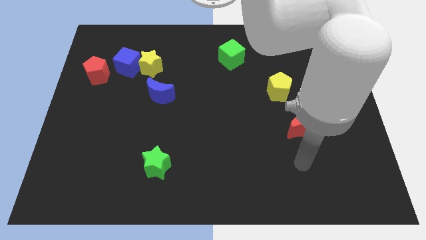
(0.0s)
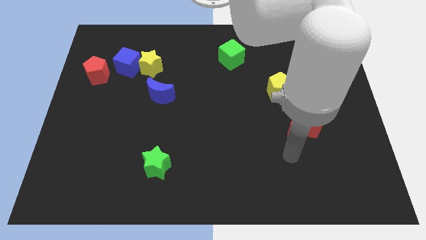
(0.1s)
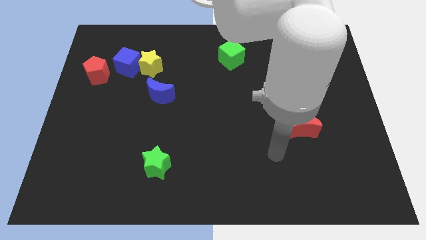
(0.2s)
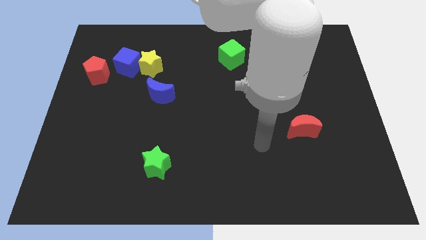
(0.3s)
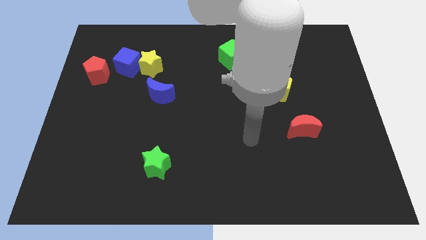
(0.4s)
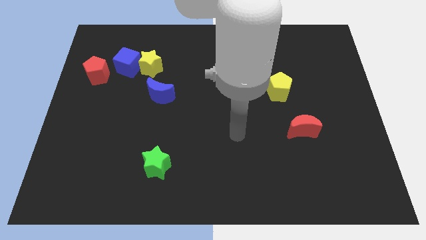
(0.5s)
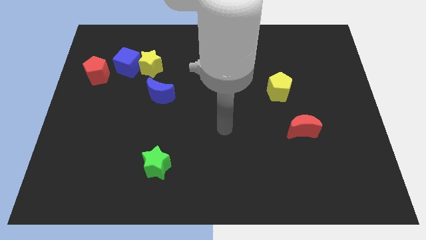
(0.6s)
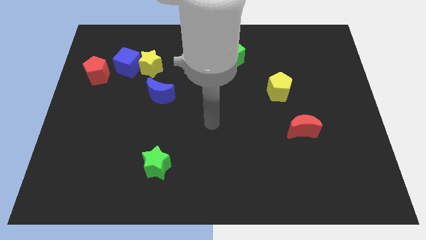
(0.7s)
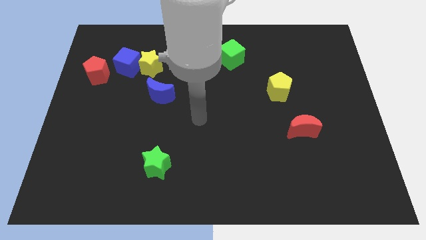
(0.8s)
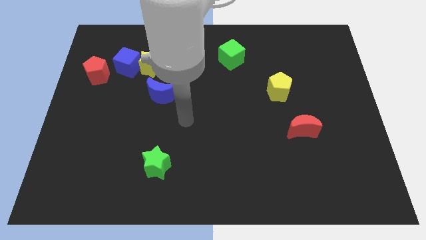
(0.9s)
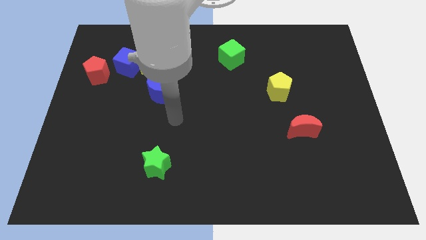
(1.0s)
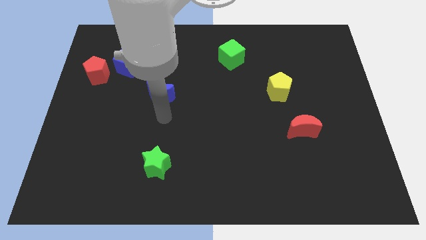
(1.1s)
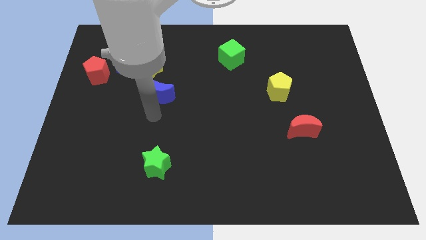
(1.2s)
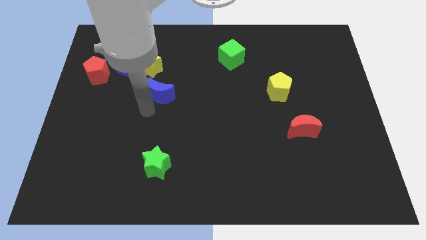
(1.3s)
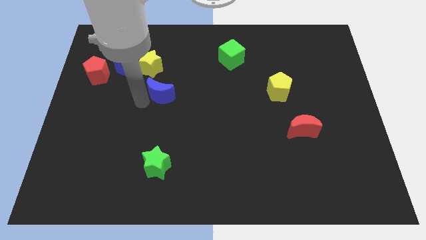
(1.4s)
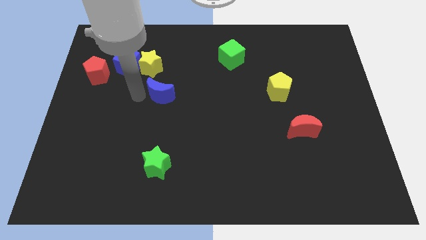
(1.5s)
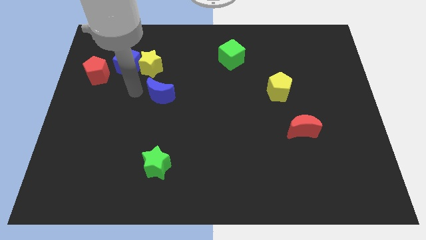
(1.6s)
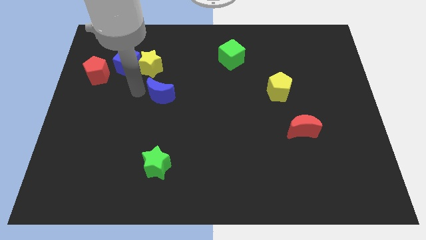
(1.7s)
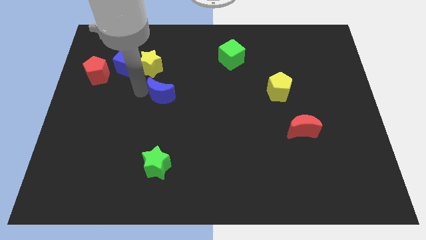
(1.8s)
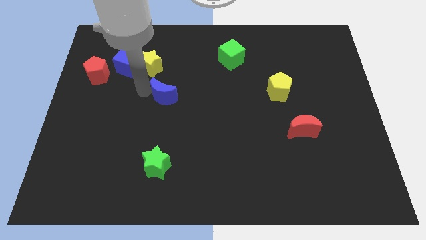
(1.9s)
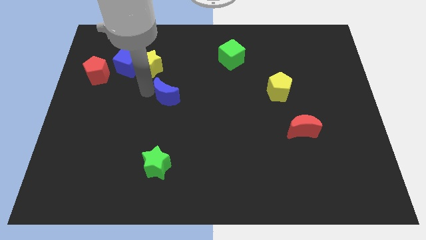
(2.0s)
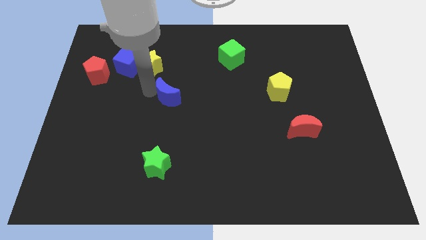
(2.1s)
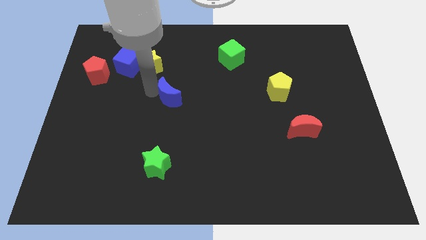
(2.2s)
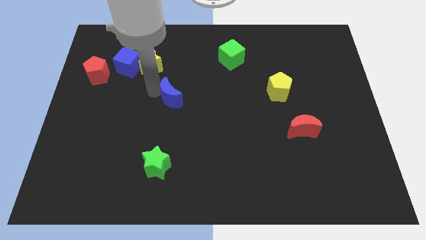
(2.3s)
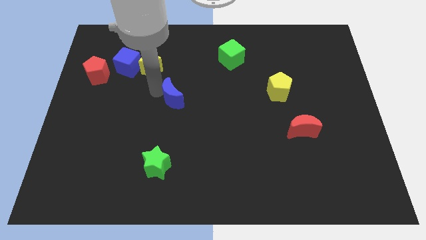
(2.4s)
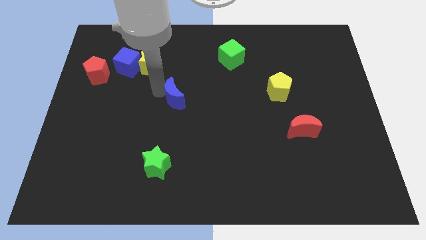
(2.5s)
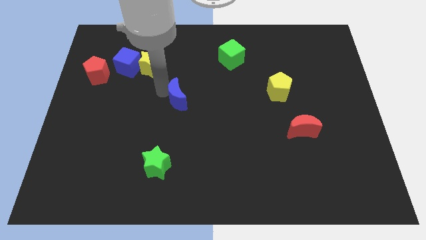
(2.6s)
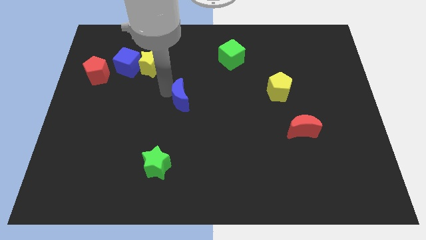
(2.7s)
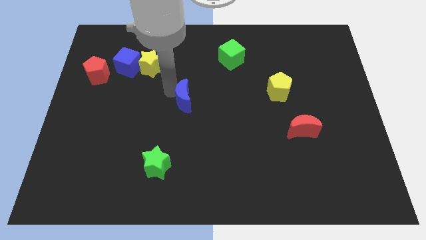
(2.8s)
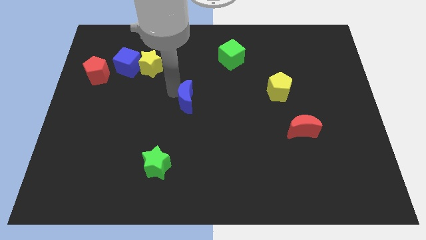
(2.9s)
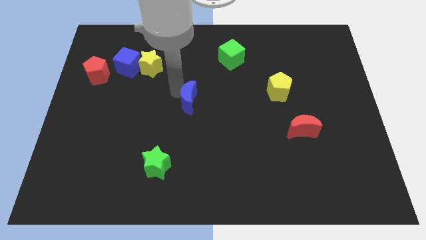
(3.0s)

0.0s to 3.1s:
slightly move the blue moon right

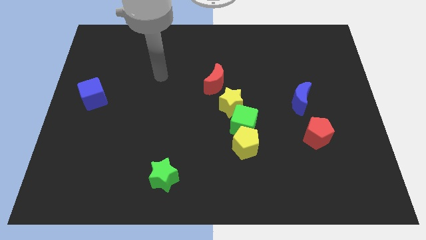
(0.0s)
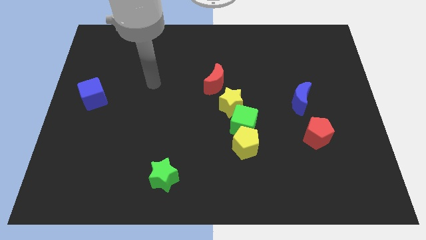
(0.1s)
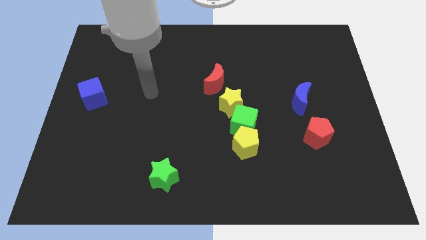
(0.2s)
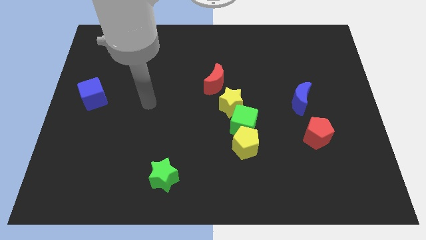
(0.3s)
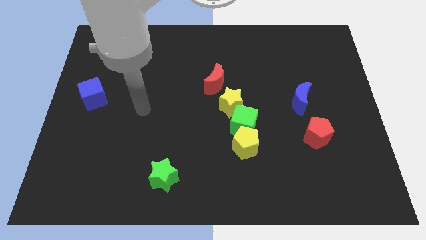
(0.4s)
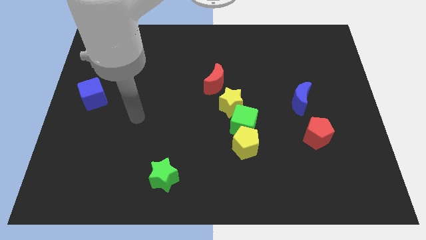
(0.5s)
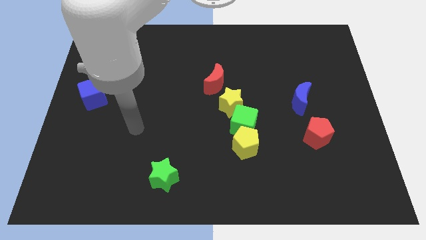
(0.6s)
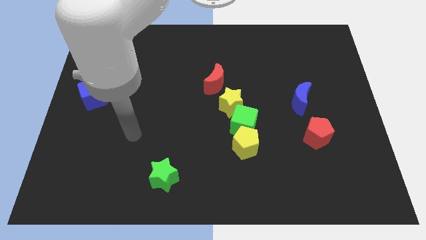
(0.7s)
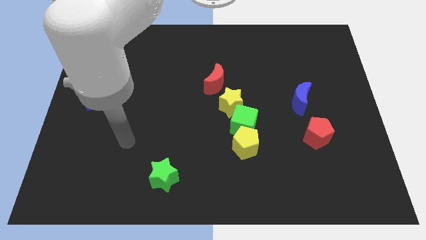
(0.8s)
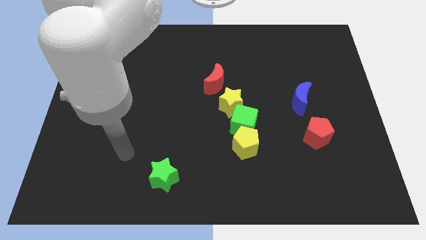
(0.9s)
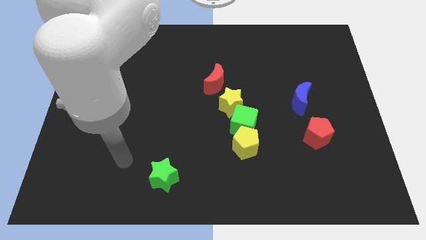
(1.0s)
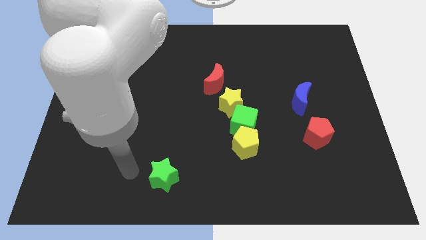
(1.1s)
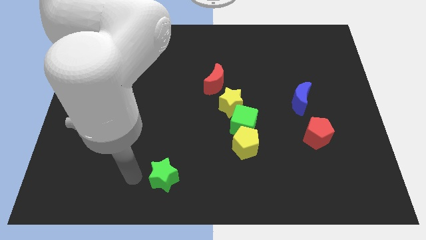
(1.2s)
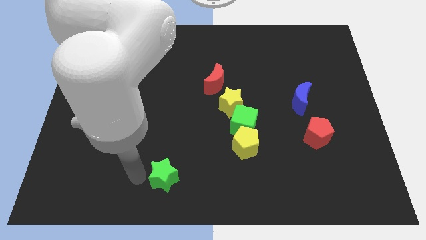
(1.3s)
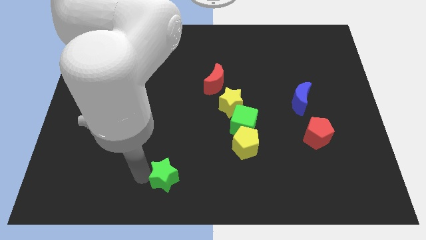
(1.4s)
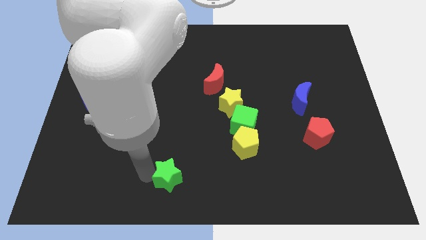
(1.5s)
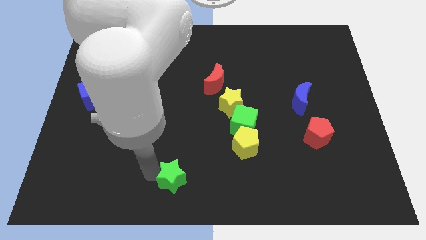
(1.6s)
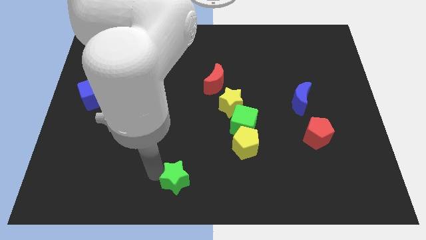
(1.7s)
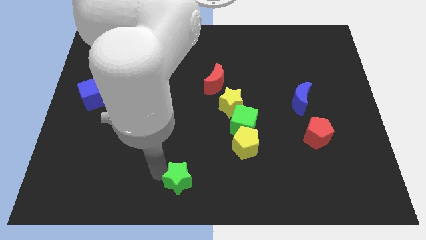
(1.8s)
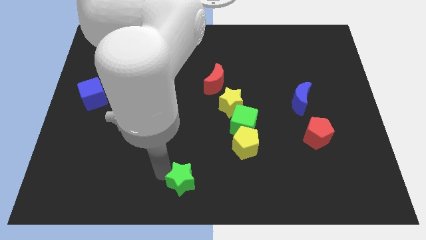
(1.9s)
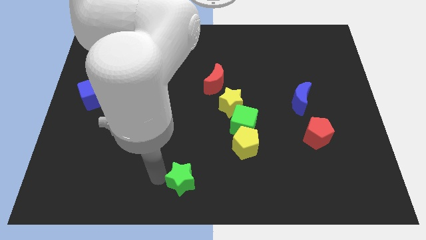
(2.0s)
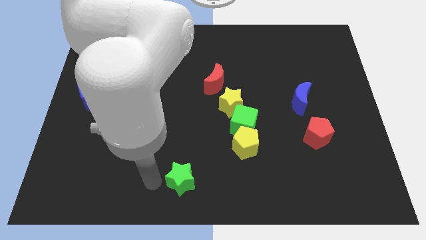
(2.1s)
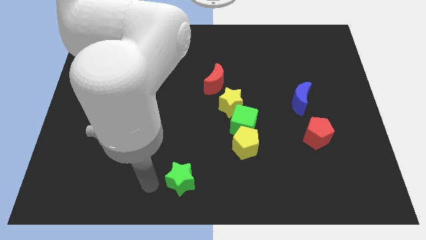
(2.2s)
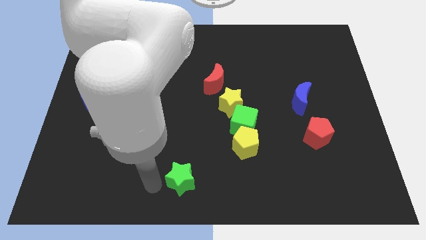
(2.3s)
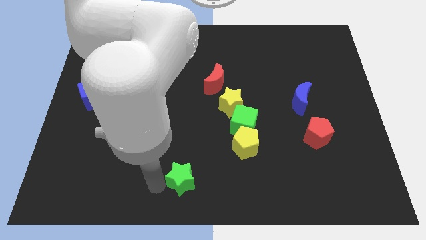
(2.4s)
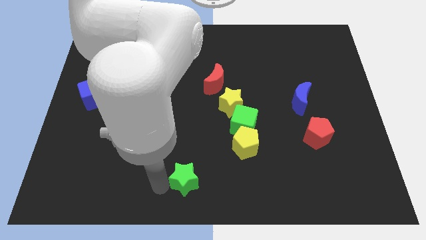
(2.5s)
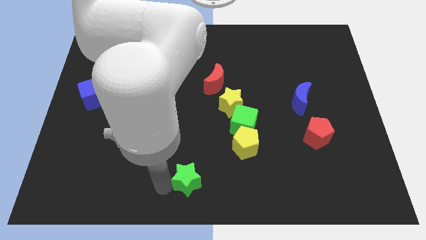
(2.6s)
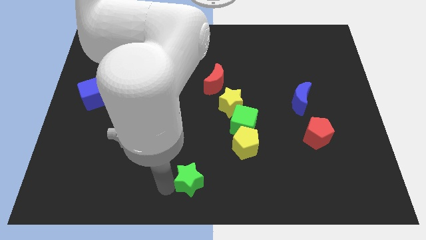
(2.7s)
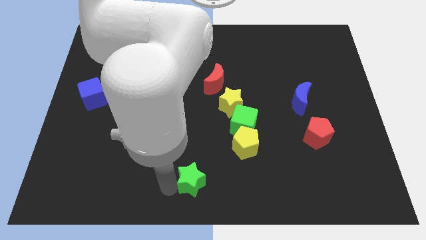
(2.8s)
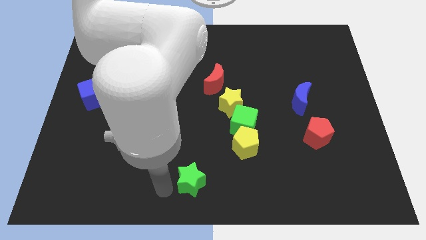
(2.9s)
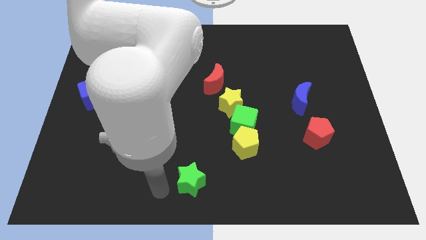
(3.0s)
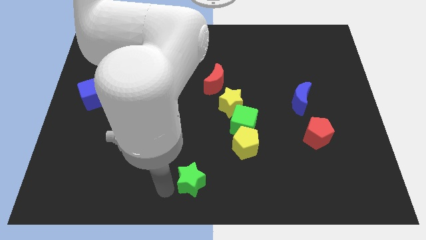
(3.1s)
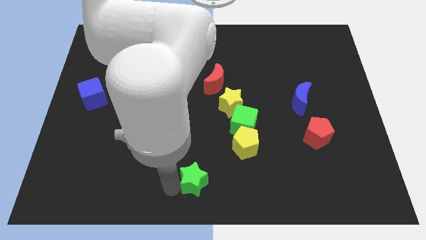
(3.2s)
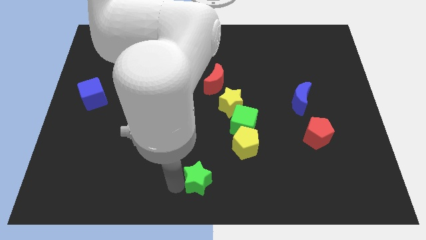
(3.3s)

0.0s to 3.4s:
slightly move the green star to the right

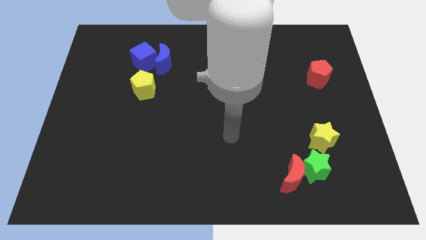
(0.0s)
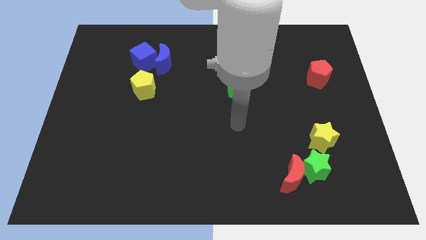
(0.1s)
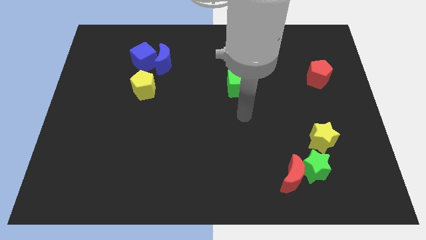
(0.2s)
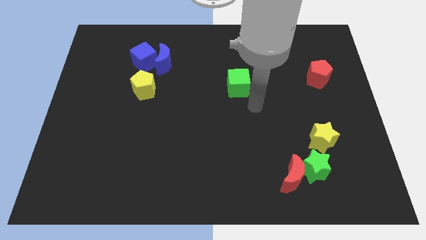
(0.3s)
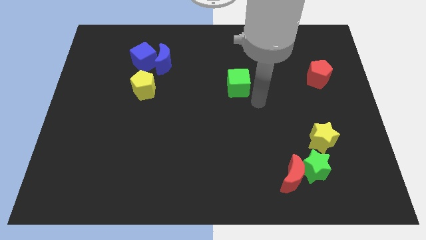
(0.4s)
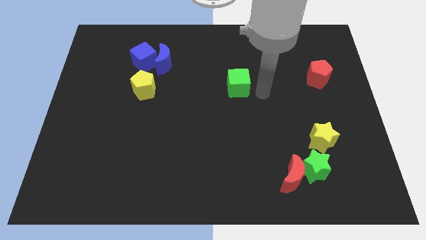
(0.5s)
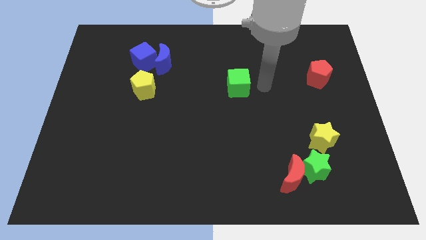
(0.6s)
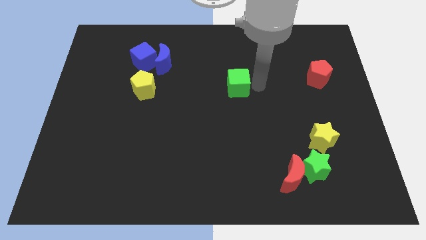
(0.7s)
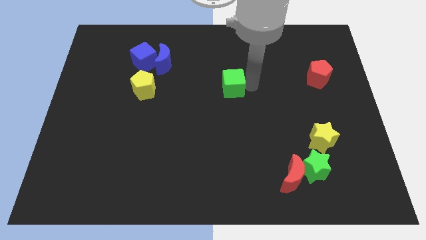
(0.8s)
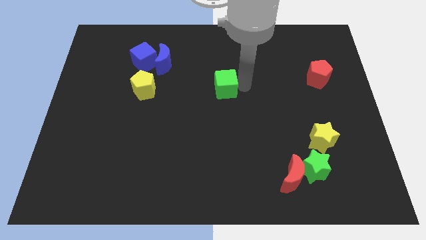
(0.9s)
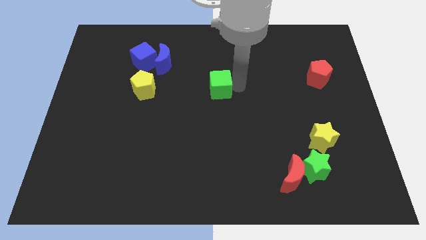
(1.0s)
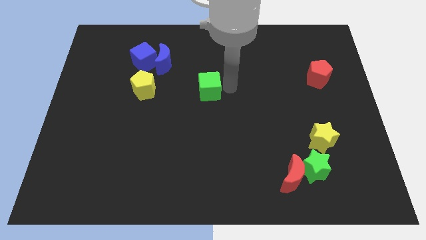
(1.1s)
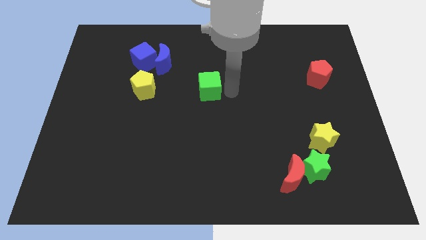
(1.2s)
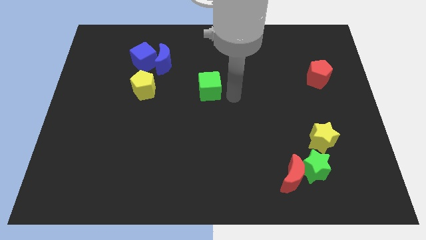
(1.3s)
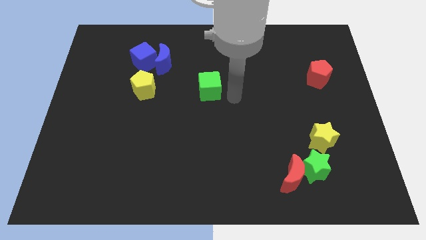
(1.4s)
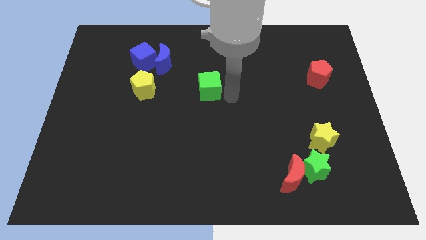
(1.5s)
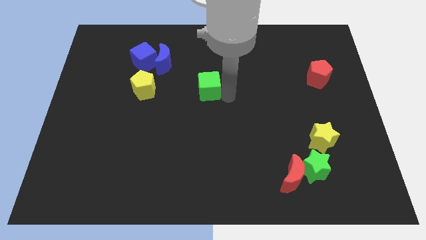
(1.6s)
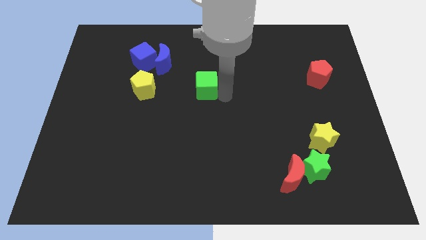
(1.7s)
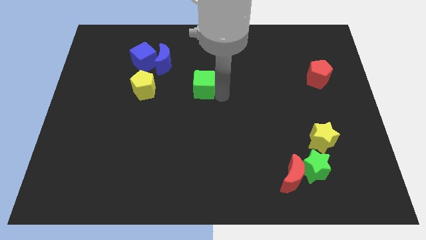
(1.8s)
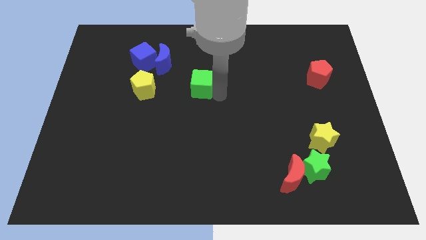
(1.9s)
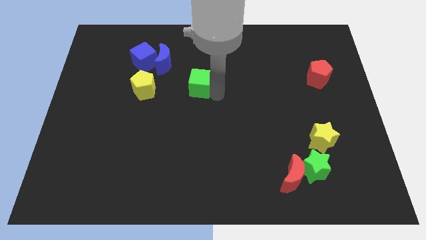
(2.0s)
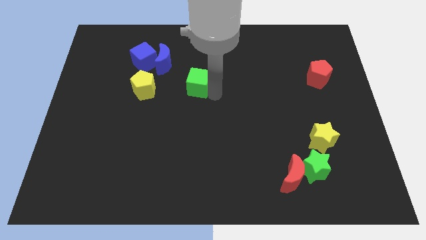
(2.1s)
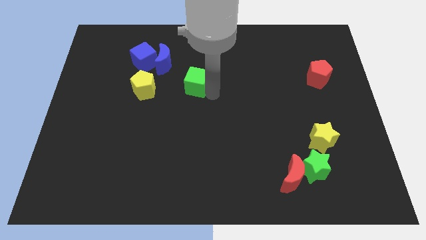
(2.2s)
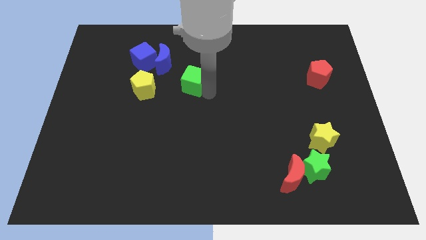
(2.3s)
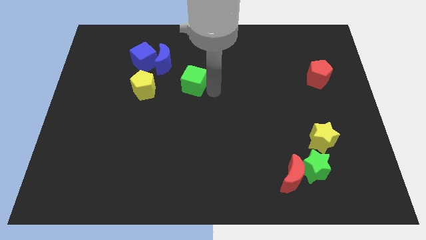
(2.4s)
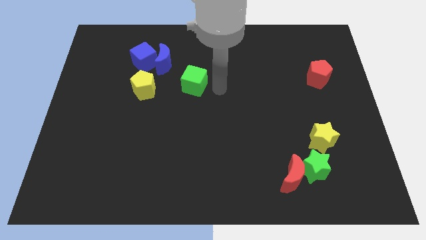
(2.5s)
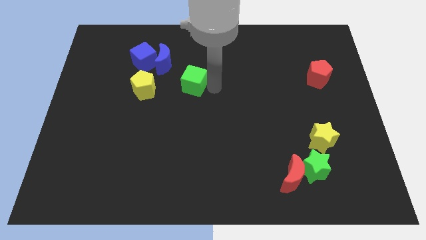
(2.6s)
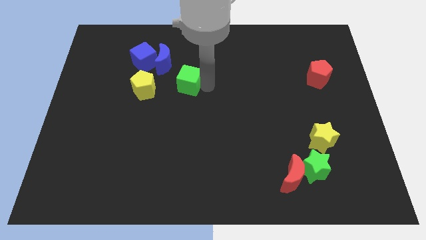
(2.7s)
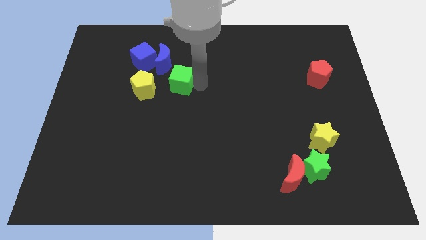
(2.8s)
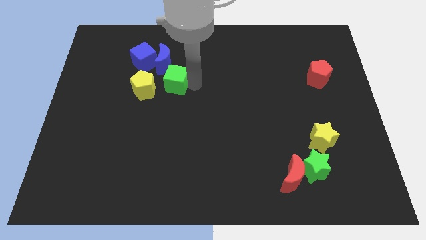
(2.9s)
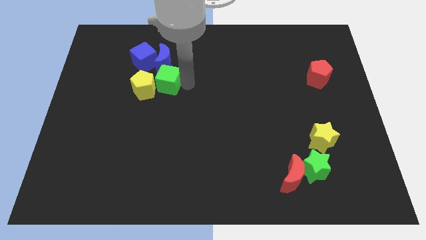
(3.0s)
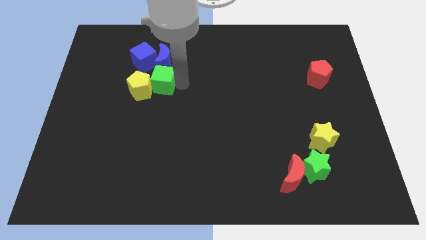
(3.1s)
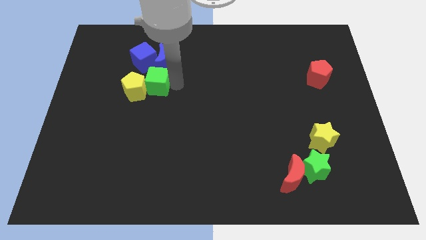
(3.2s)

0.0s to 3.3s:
slide the green cube left
